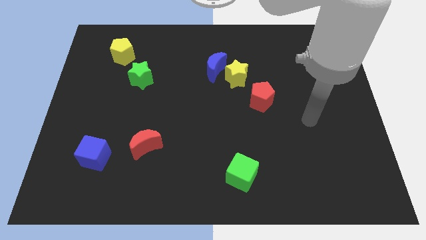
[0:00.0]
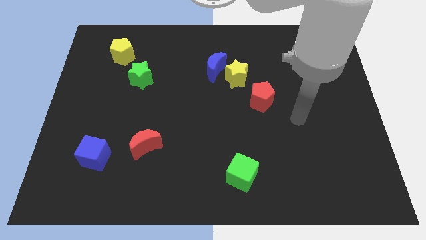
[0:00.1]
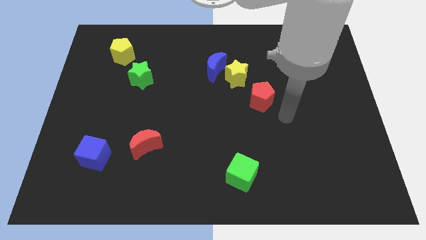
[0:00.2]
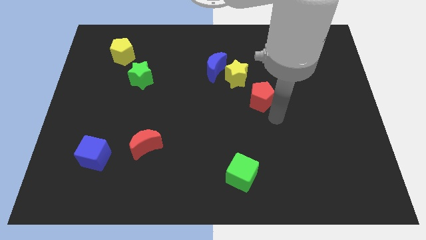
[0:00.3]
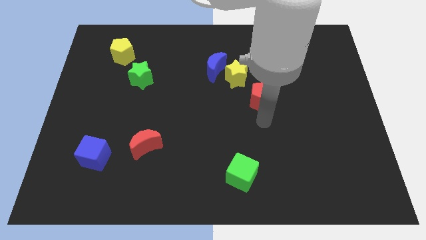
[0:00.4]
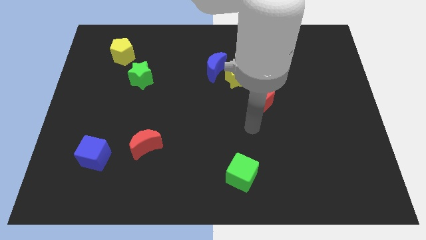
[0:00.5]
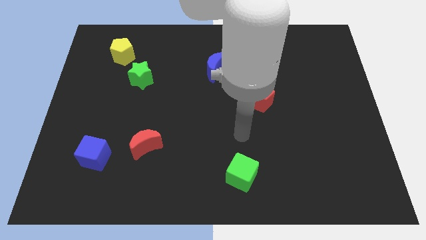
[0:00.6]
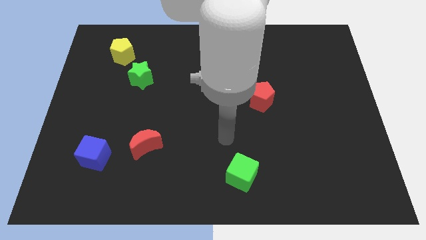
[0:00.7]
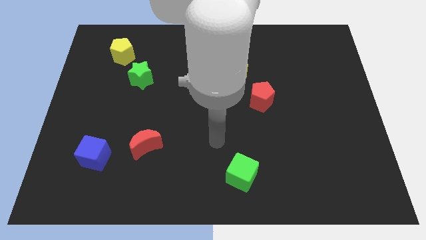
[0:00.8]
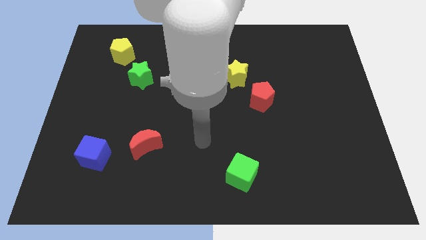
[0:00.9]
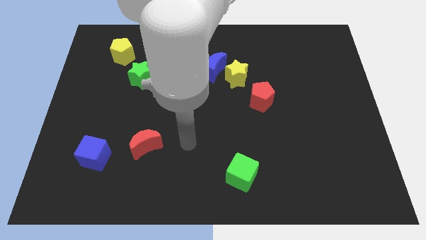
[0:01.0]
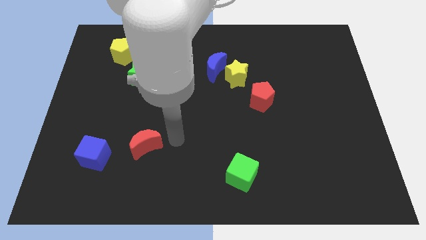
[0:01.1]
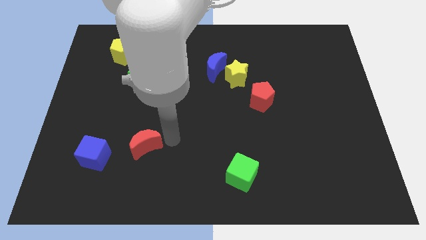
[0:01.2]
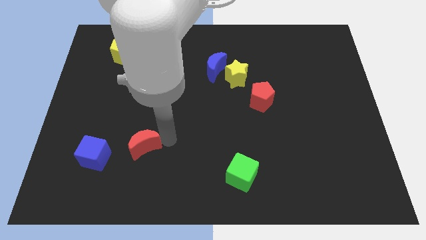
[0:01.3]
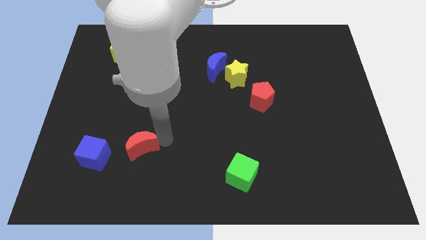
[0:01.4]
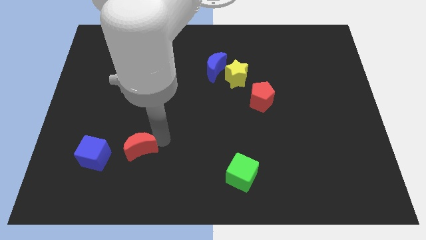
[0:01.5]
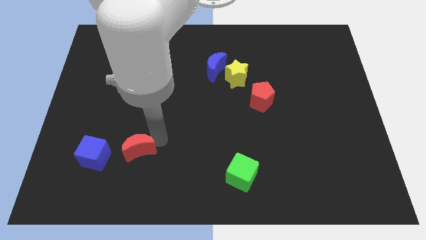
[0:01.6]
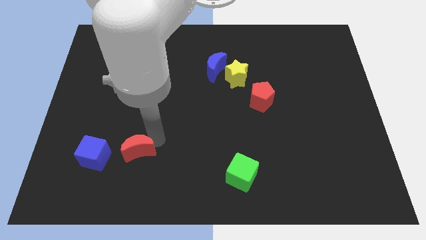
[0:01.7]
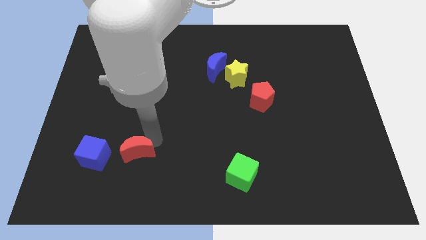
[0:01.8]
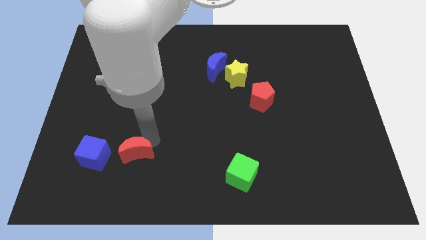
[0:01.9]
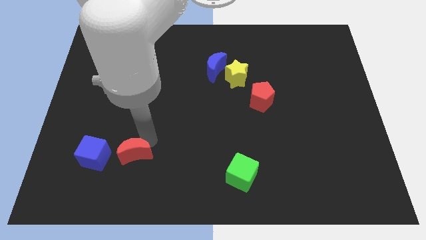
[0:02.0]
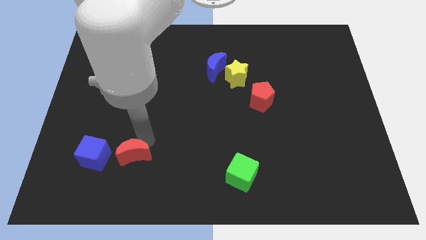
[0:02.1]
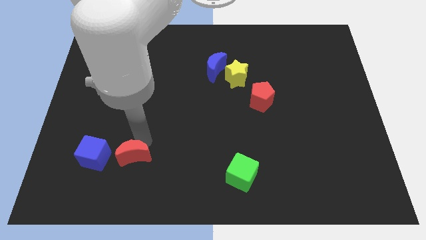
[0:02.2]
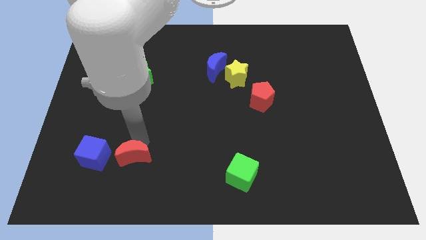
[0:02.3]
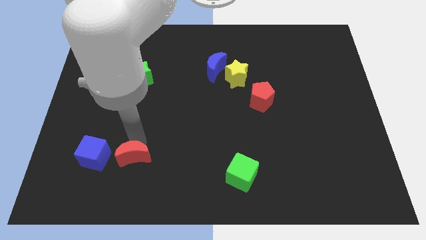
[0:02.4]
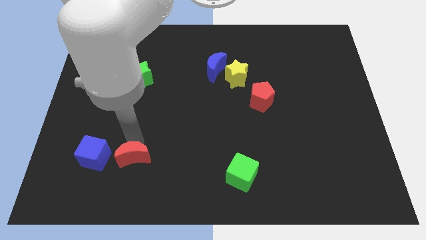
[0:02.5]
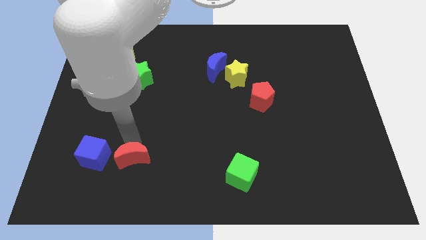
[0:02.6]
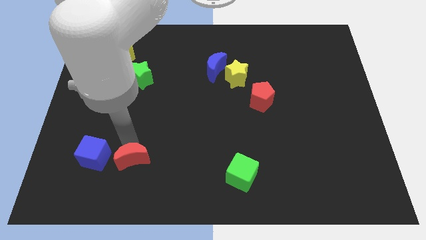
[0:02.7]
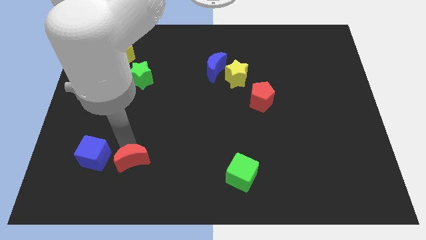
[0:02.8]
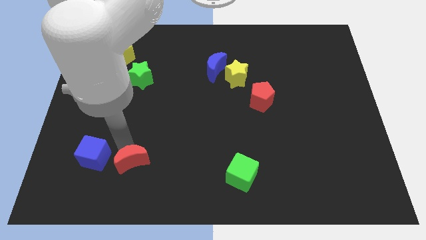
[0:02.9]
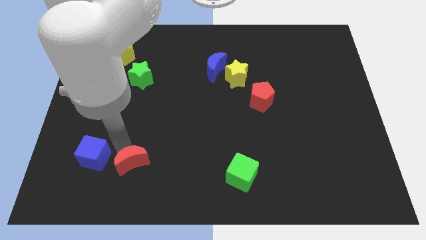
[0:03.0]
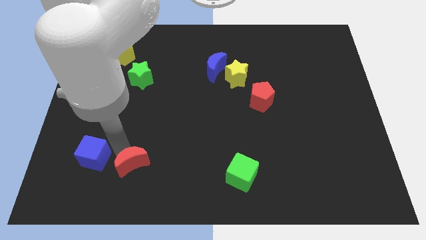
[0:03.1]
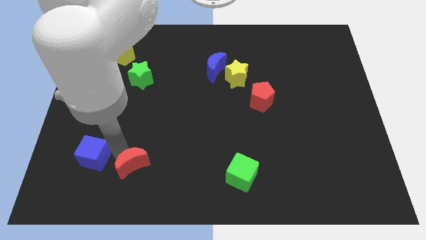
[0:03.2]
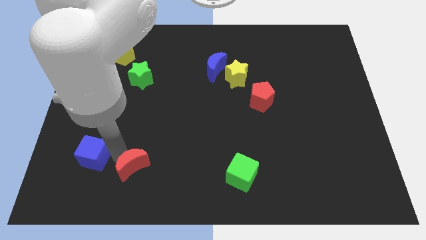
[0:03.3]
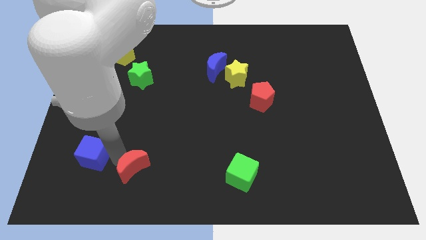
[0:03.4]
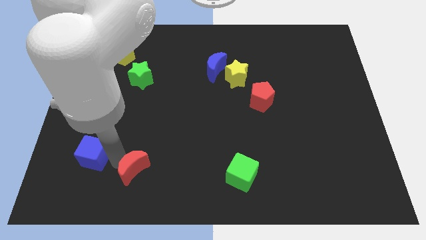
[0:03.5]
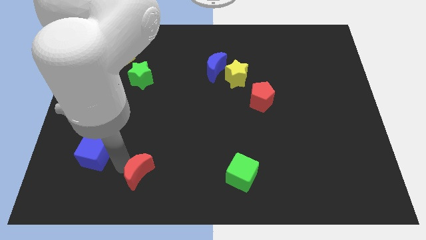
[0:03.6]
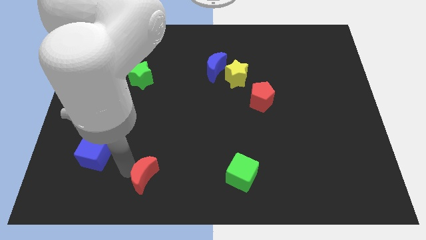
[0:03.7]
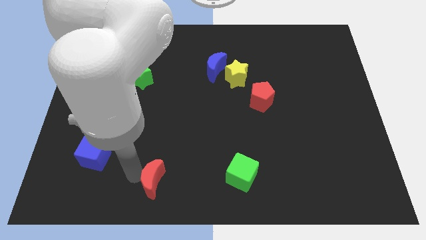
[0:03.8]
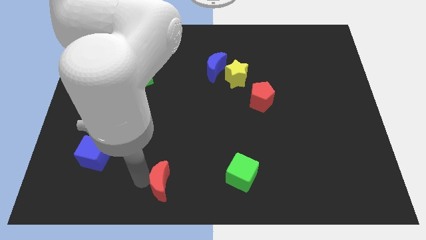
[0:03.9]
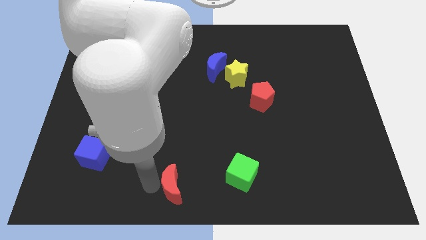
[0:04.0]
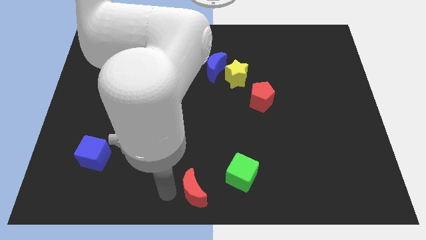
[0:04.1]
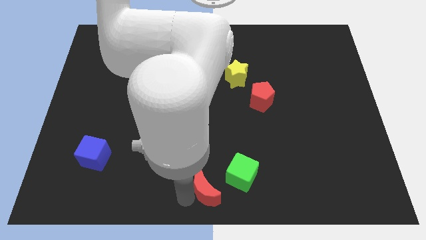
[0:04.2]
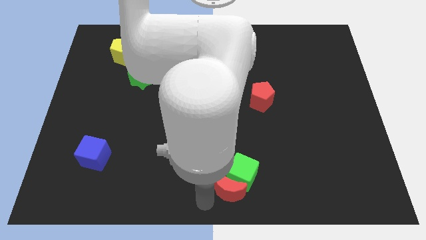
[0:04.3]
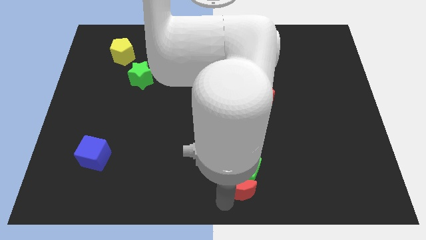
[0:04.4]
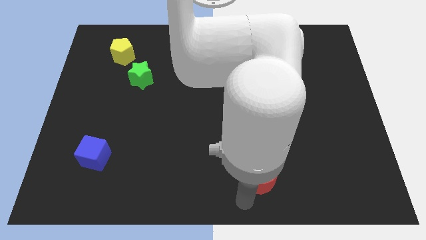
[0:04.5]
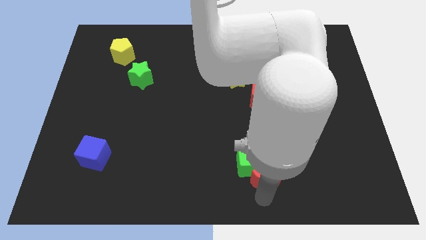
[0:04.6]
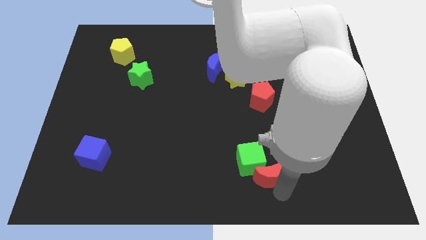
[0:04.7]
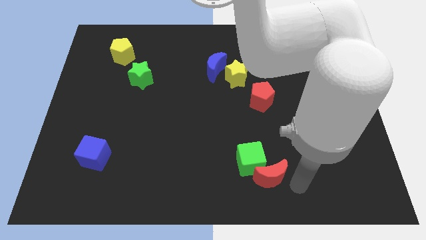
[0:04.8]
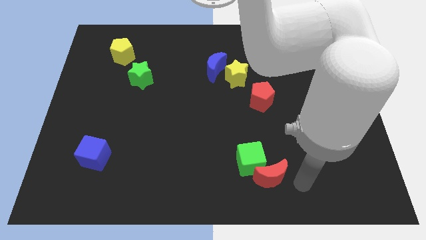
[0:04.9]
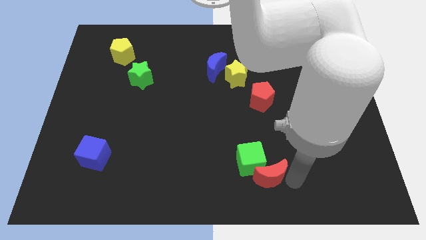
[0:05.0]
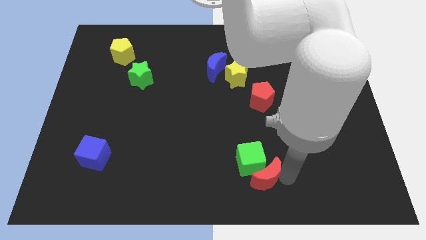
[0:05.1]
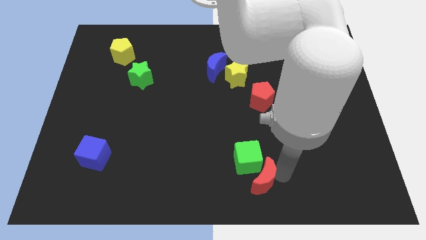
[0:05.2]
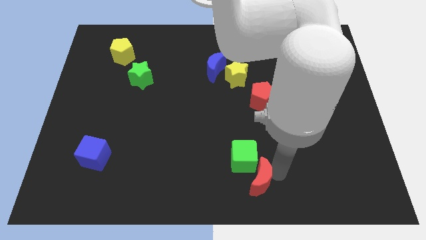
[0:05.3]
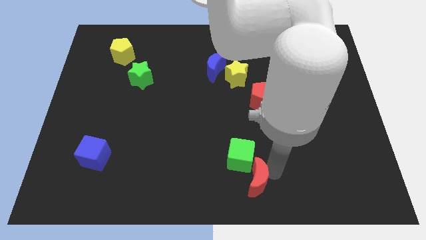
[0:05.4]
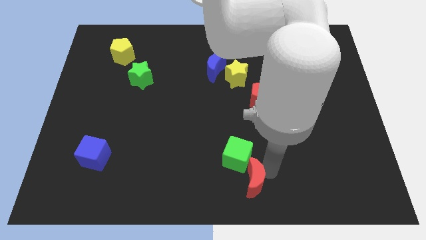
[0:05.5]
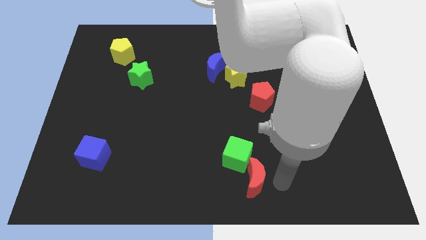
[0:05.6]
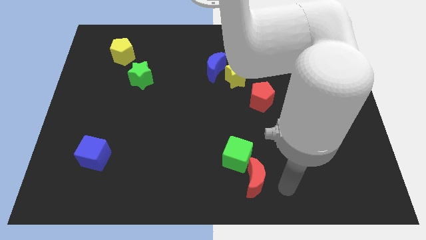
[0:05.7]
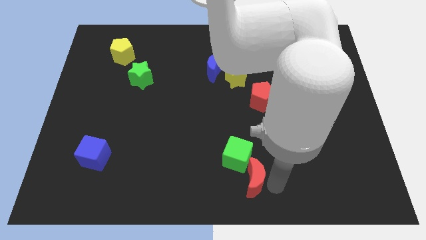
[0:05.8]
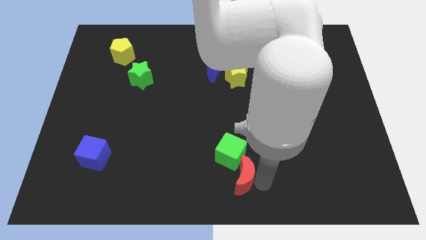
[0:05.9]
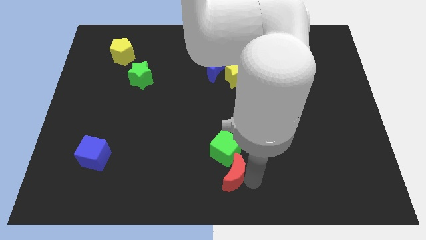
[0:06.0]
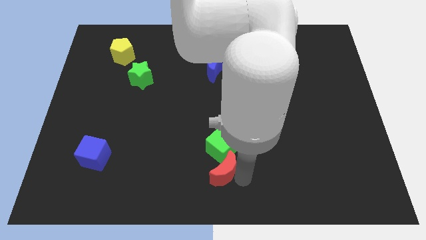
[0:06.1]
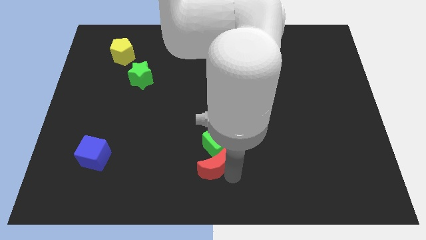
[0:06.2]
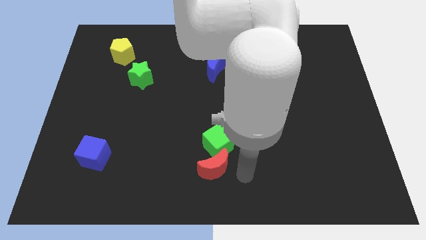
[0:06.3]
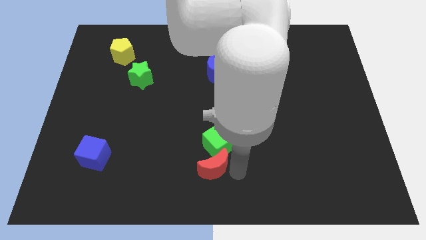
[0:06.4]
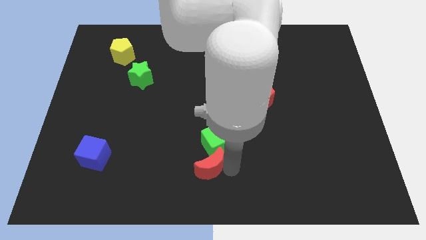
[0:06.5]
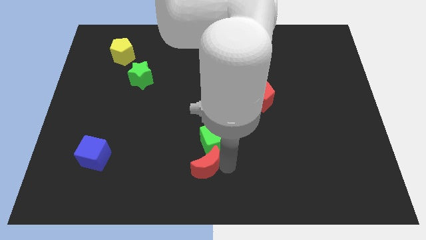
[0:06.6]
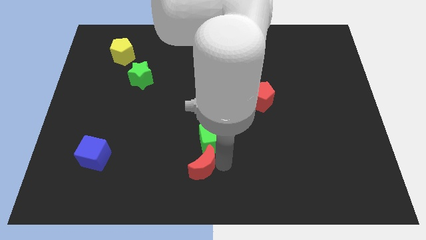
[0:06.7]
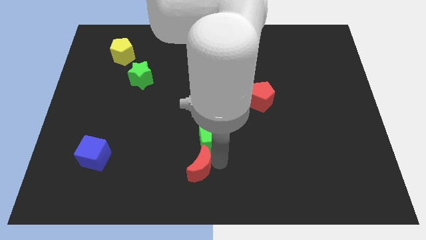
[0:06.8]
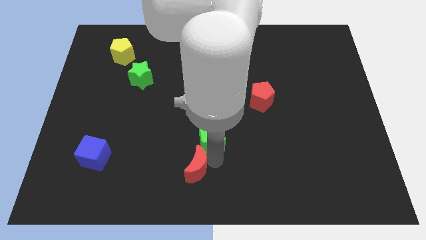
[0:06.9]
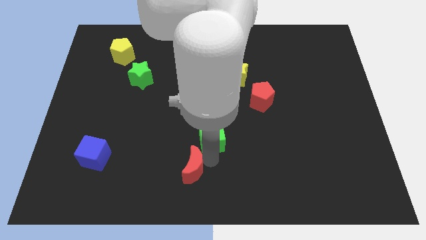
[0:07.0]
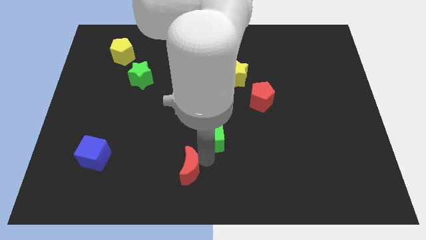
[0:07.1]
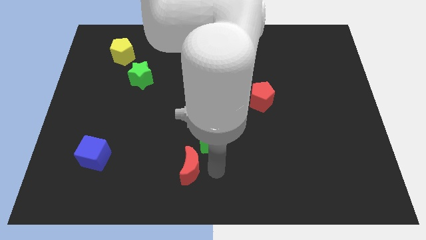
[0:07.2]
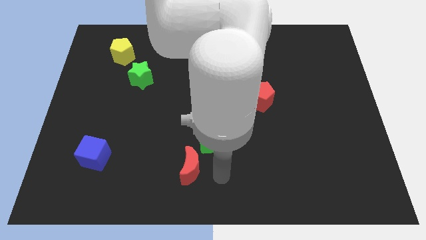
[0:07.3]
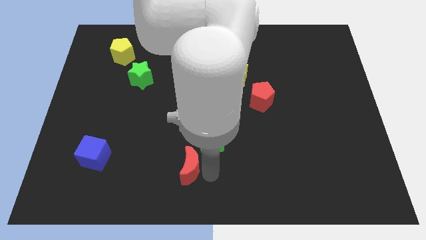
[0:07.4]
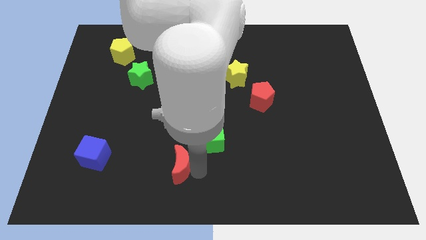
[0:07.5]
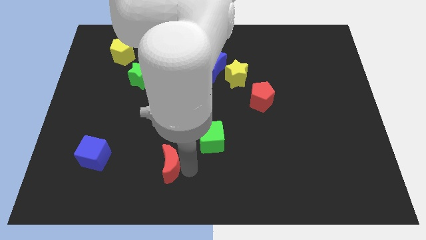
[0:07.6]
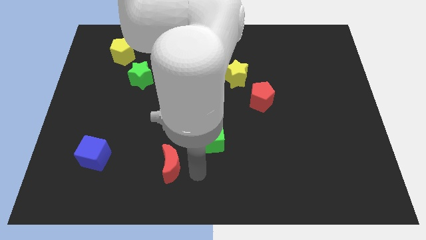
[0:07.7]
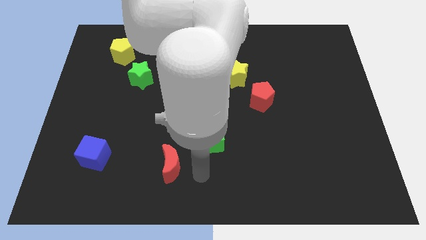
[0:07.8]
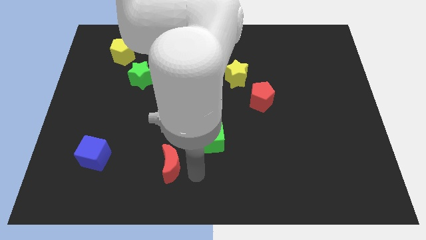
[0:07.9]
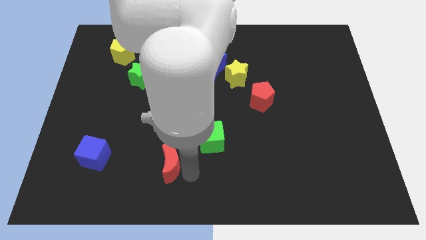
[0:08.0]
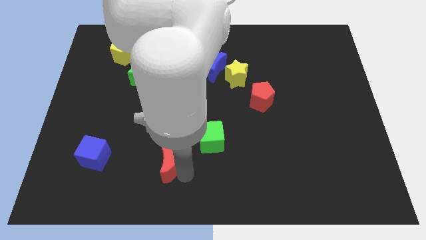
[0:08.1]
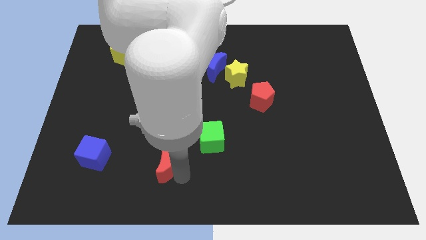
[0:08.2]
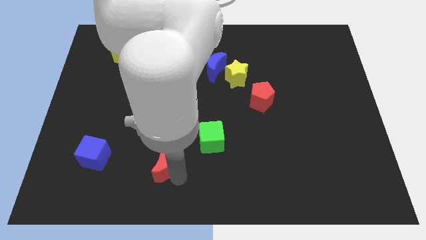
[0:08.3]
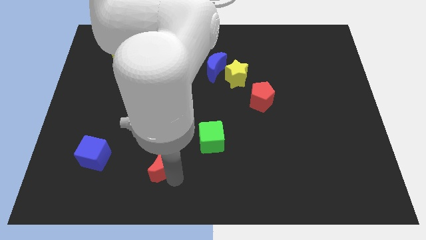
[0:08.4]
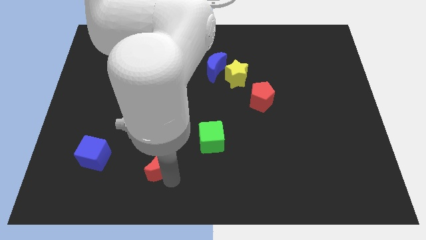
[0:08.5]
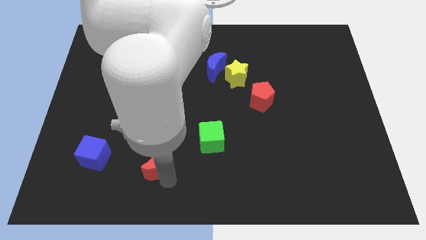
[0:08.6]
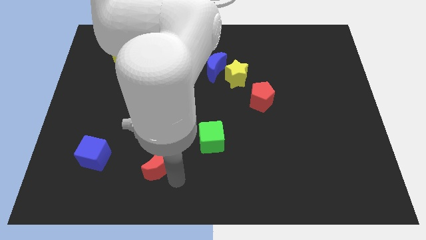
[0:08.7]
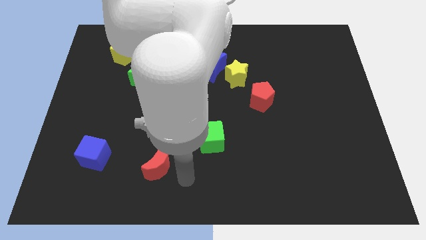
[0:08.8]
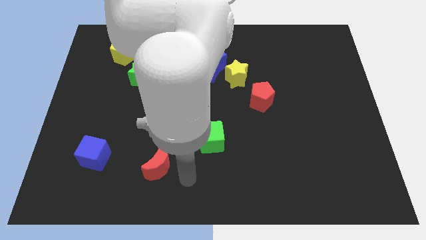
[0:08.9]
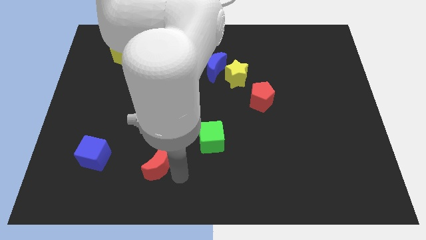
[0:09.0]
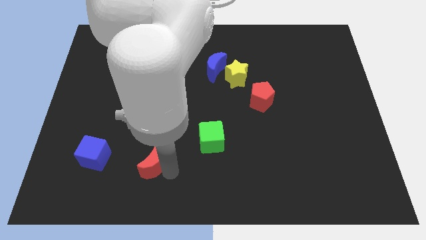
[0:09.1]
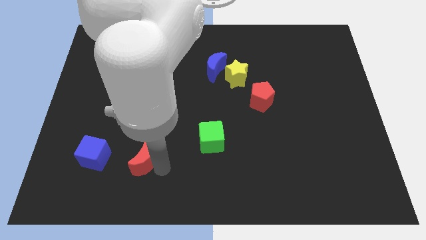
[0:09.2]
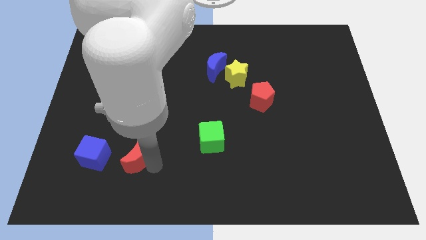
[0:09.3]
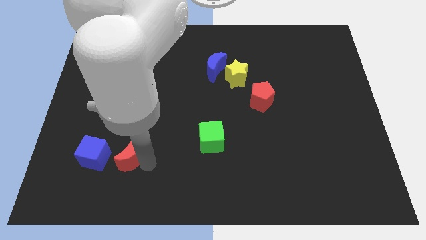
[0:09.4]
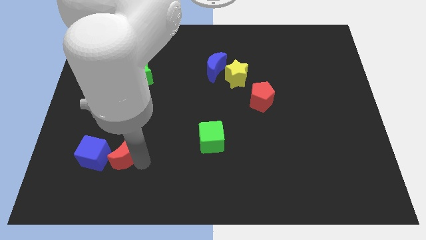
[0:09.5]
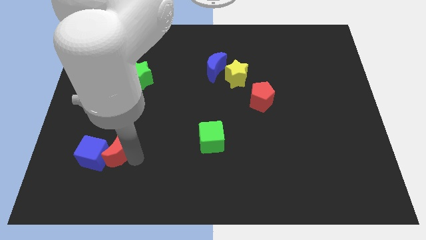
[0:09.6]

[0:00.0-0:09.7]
put the red moon towards the blue cube
